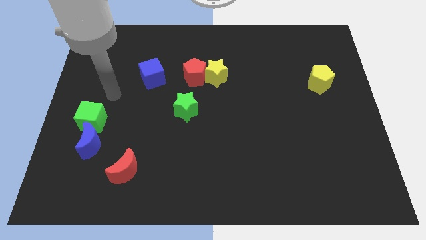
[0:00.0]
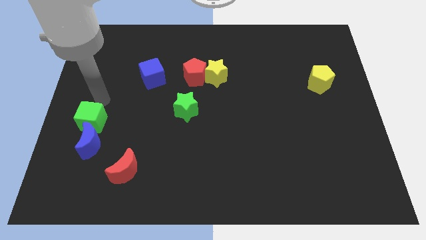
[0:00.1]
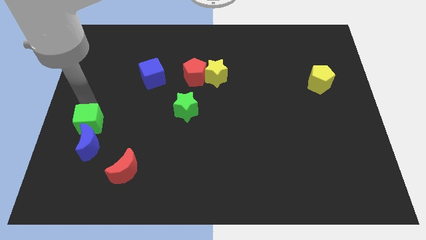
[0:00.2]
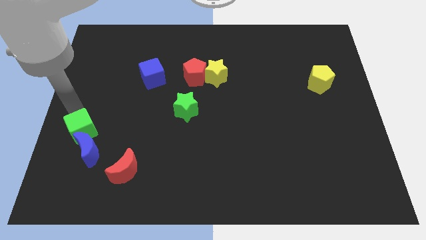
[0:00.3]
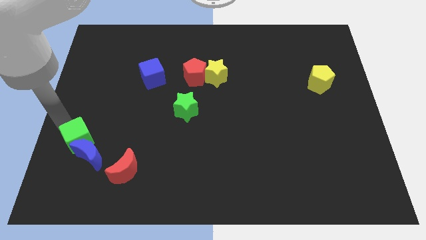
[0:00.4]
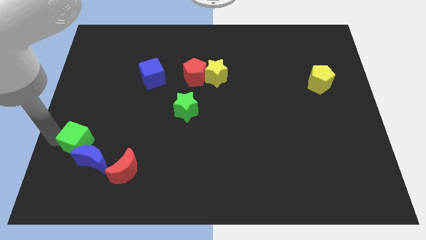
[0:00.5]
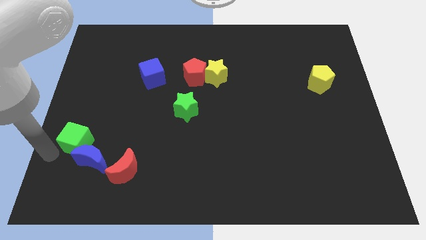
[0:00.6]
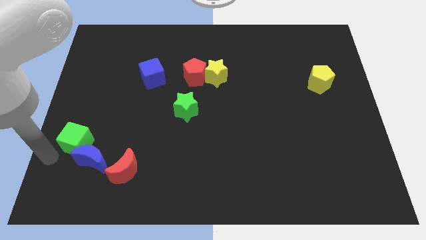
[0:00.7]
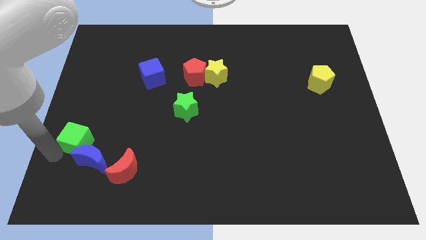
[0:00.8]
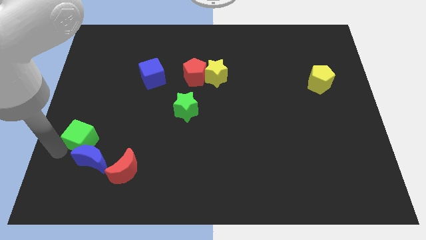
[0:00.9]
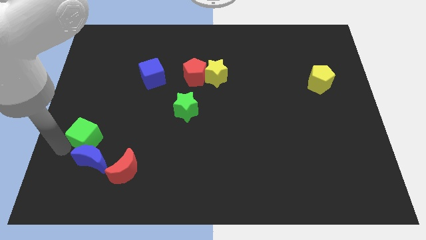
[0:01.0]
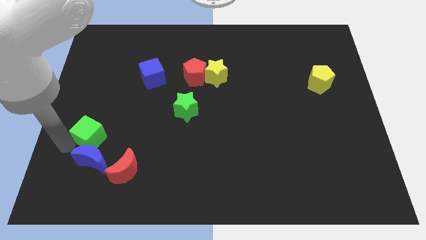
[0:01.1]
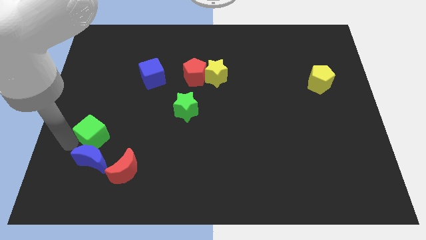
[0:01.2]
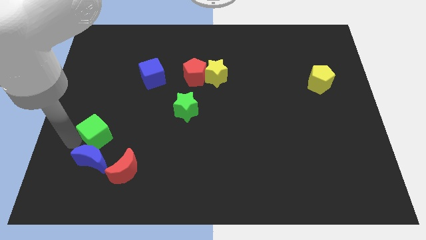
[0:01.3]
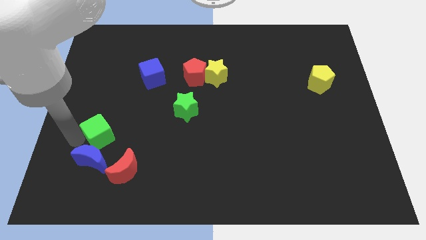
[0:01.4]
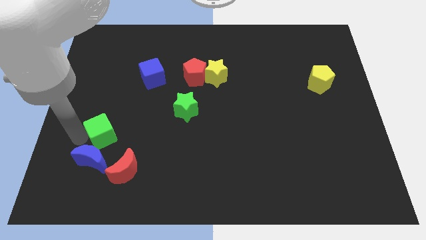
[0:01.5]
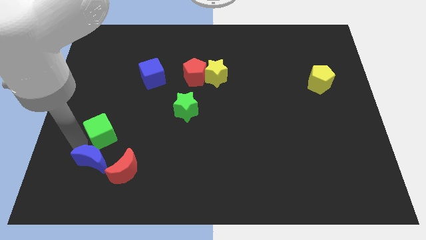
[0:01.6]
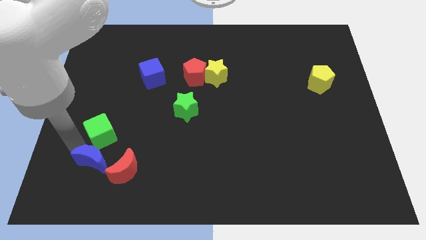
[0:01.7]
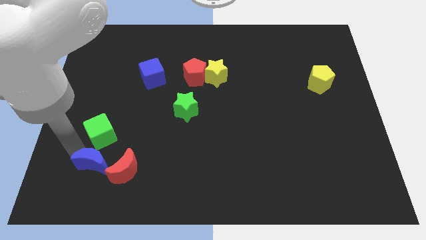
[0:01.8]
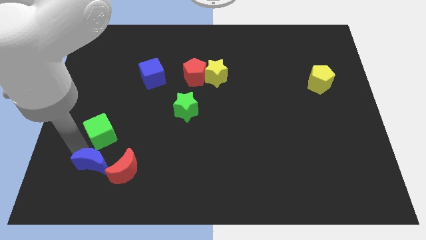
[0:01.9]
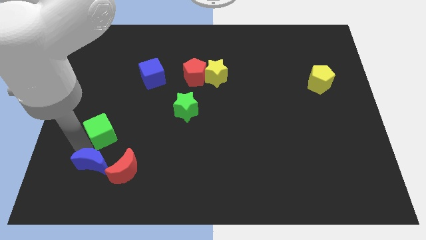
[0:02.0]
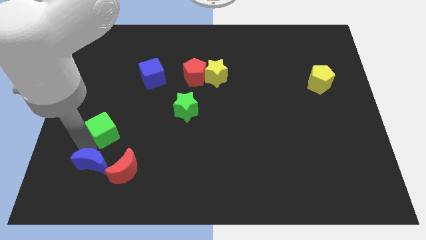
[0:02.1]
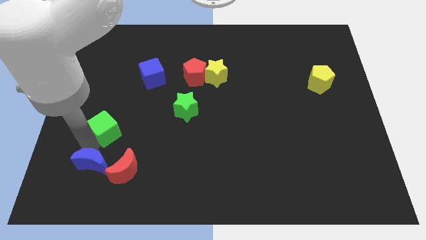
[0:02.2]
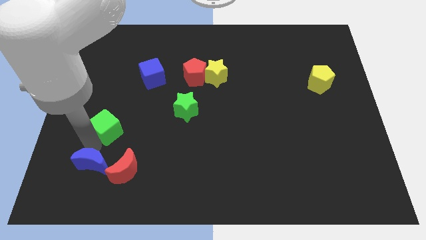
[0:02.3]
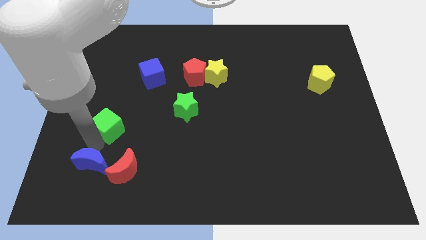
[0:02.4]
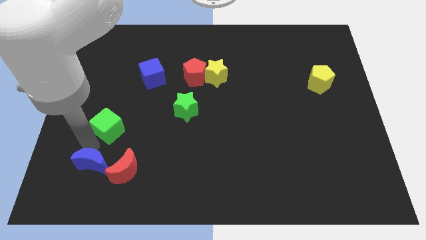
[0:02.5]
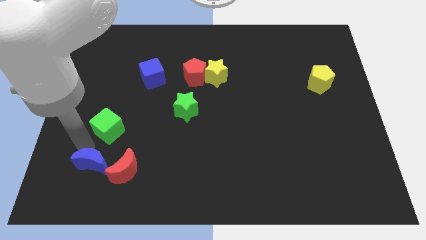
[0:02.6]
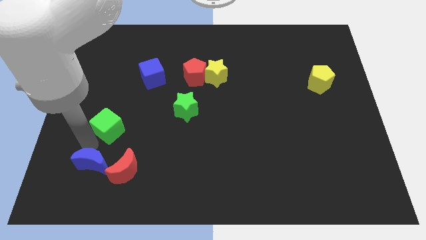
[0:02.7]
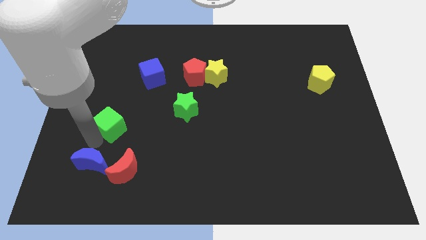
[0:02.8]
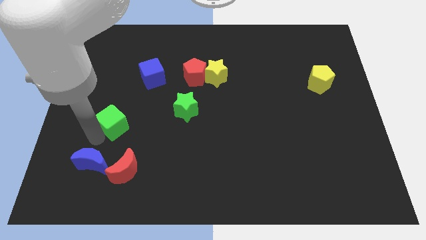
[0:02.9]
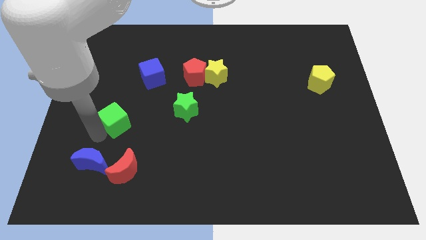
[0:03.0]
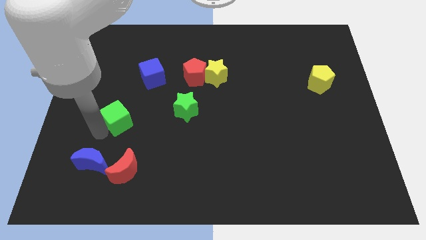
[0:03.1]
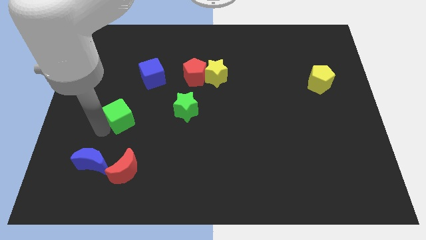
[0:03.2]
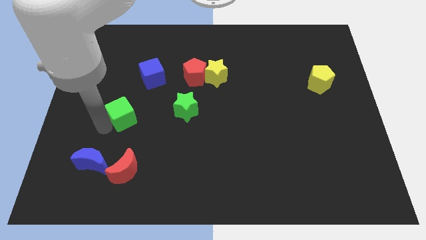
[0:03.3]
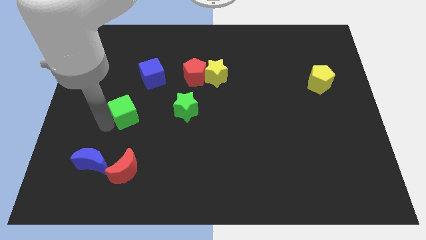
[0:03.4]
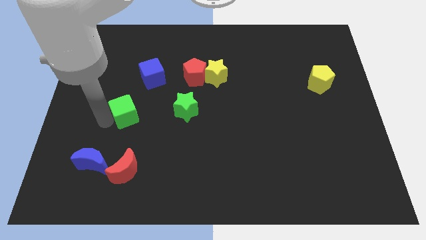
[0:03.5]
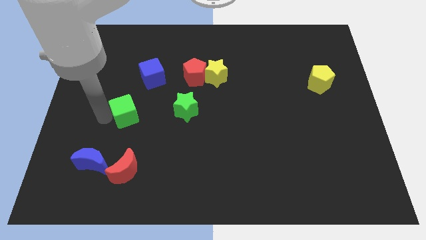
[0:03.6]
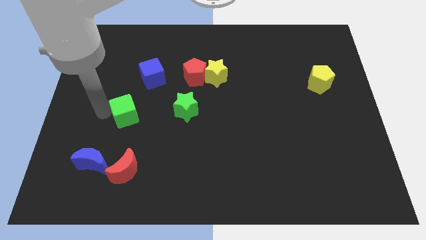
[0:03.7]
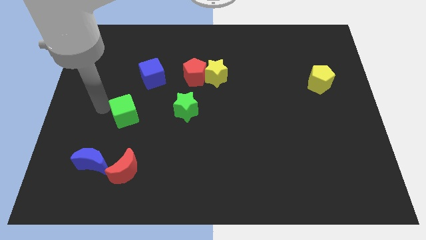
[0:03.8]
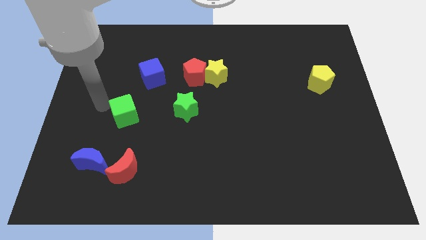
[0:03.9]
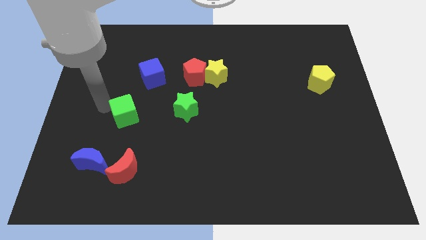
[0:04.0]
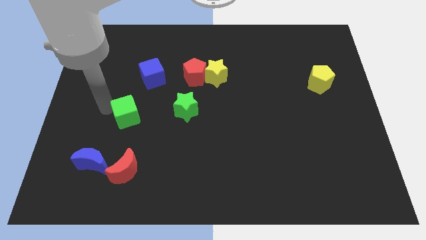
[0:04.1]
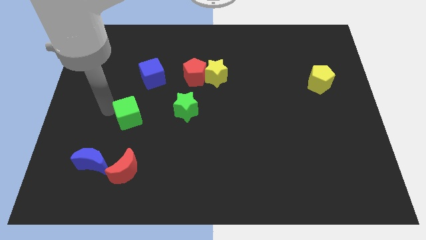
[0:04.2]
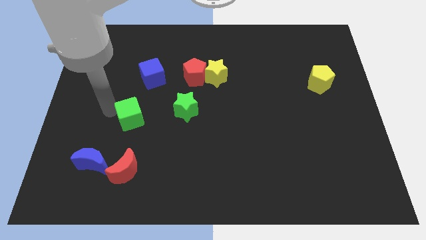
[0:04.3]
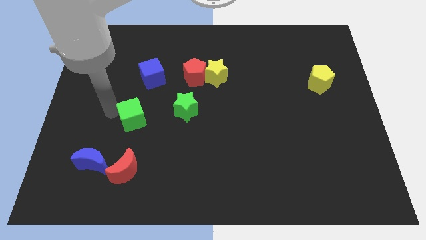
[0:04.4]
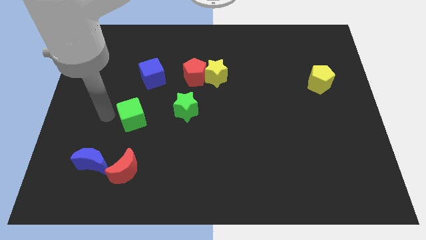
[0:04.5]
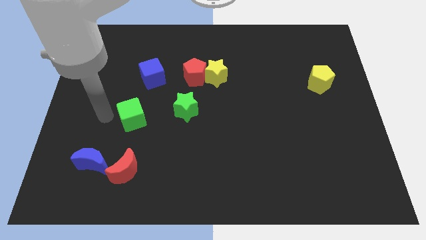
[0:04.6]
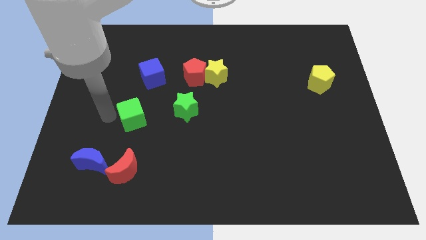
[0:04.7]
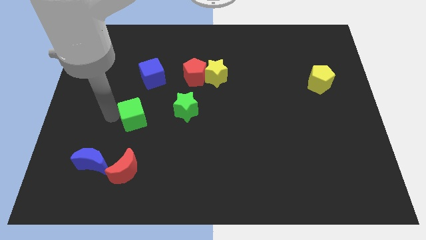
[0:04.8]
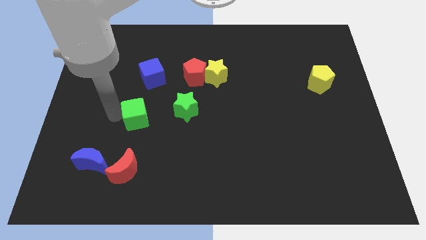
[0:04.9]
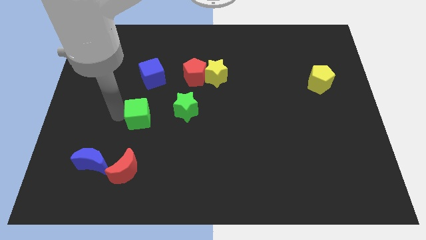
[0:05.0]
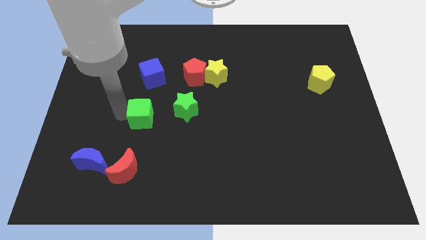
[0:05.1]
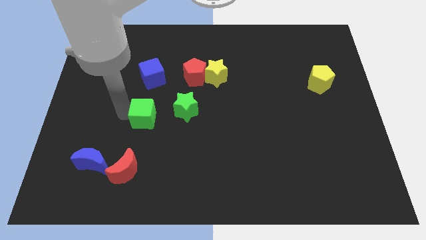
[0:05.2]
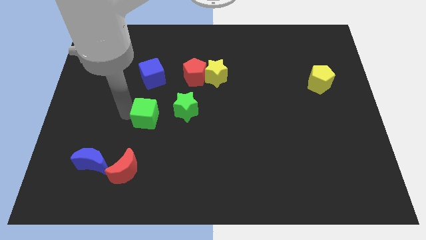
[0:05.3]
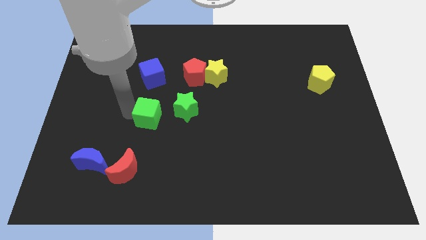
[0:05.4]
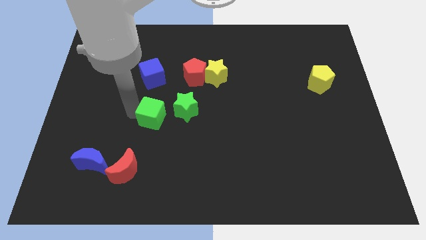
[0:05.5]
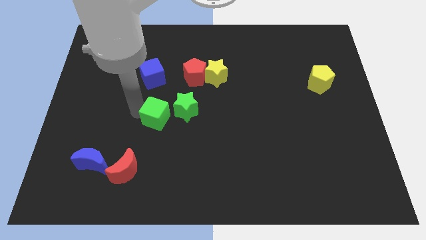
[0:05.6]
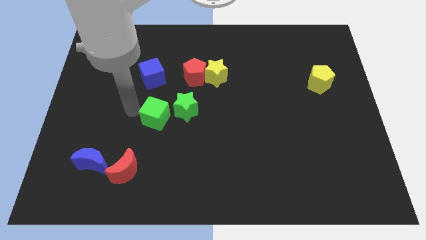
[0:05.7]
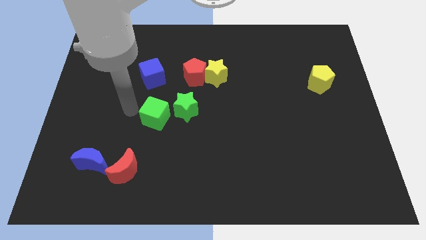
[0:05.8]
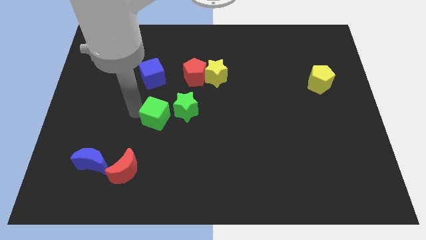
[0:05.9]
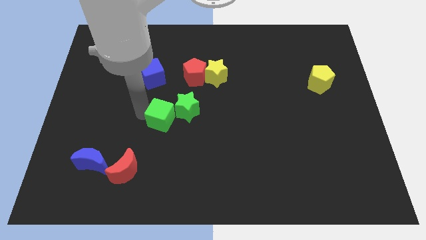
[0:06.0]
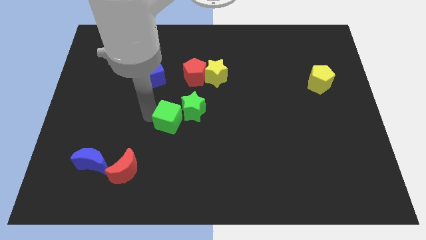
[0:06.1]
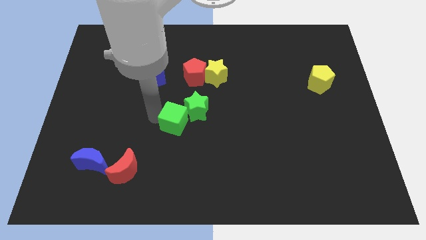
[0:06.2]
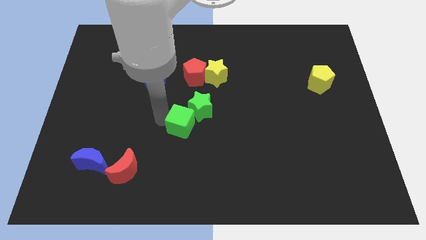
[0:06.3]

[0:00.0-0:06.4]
slide the green cube right

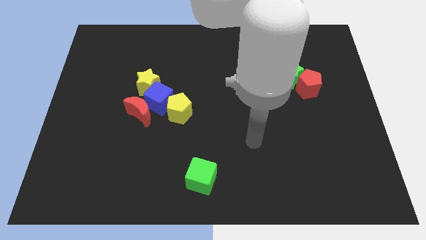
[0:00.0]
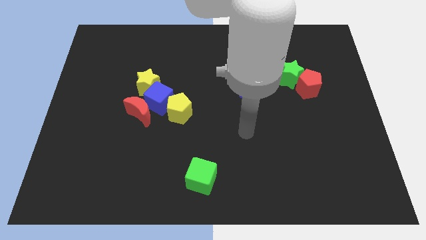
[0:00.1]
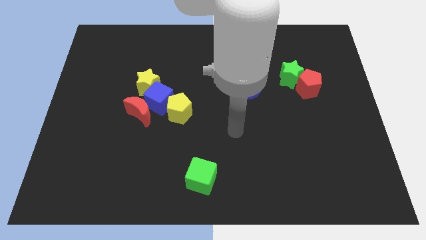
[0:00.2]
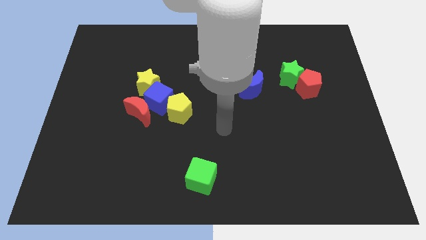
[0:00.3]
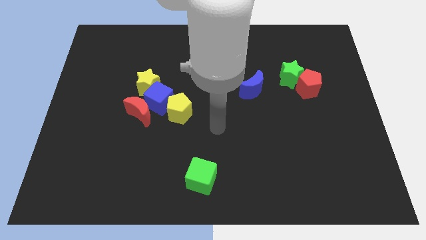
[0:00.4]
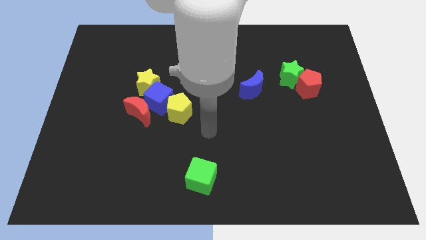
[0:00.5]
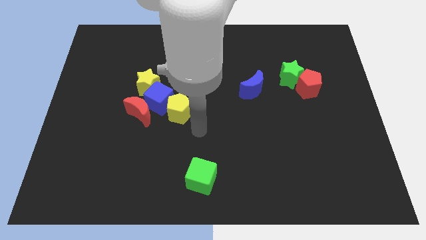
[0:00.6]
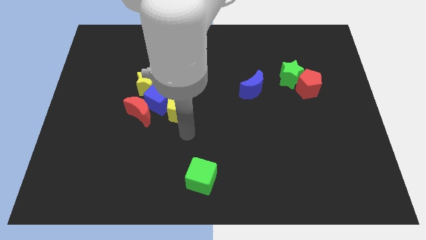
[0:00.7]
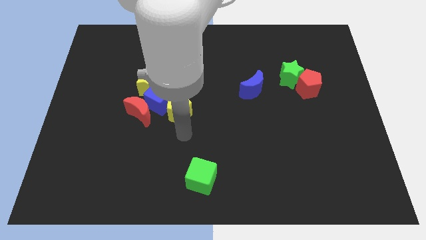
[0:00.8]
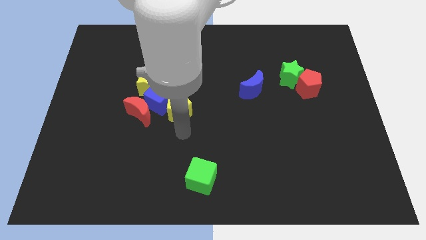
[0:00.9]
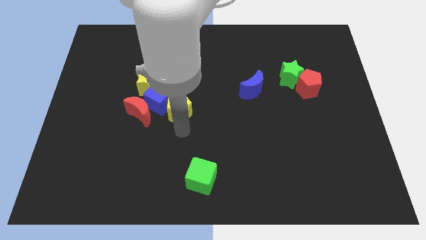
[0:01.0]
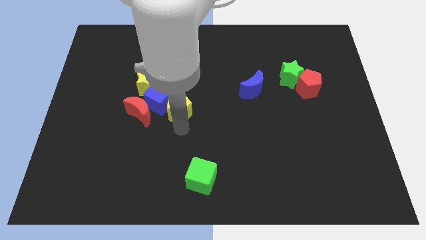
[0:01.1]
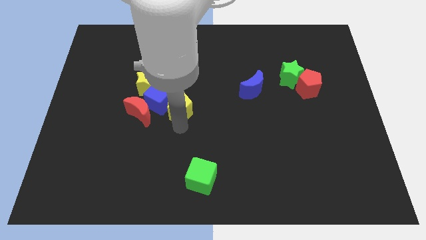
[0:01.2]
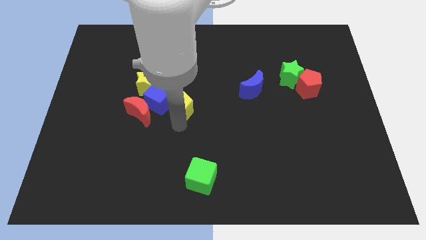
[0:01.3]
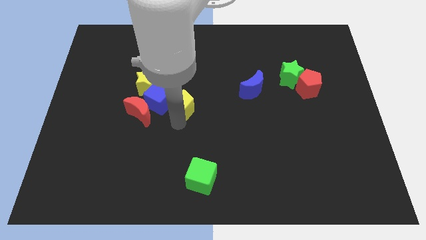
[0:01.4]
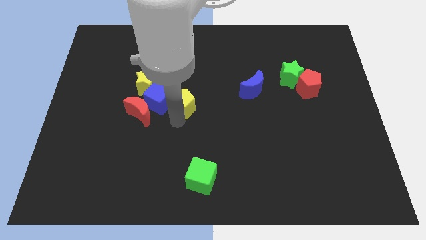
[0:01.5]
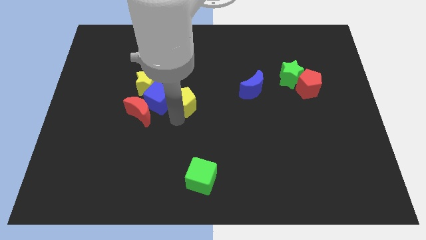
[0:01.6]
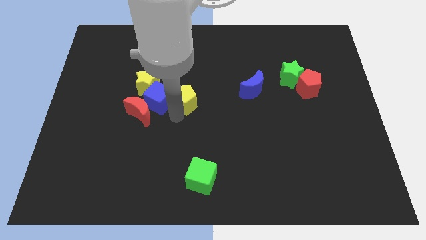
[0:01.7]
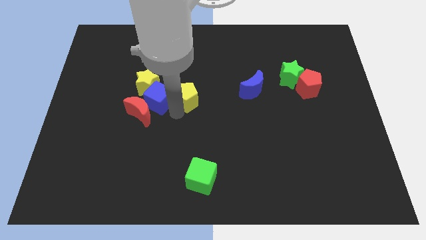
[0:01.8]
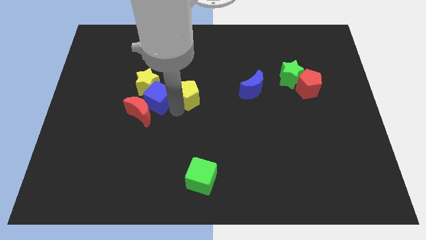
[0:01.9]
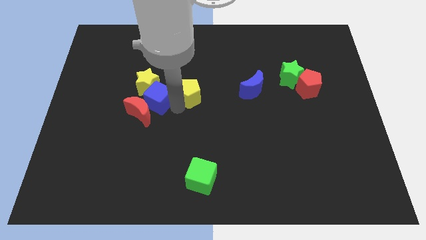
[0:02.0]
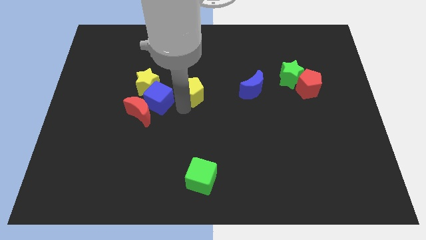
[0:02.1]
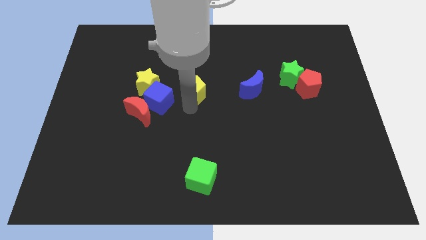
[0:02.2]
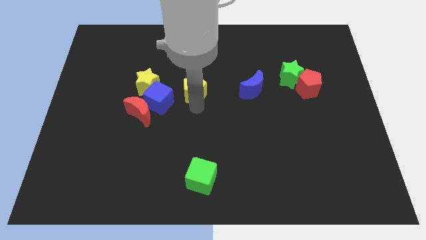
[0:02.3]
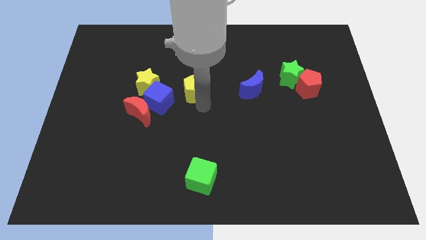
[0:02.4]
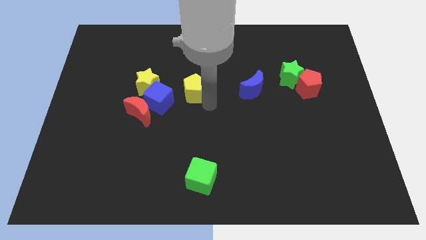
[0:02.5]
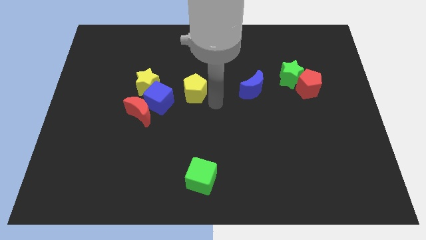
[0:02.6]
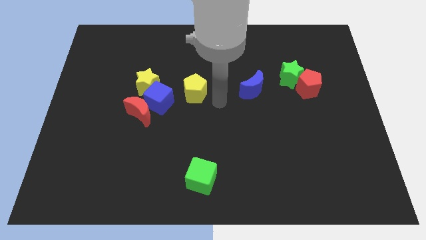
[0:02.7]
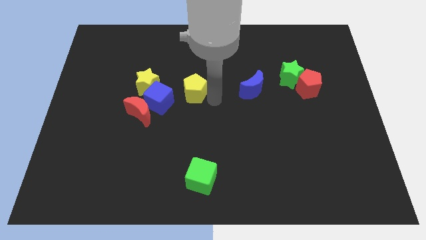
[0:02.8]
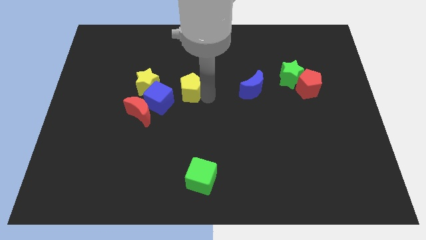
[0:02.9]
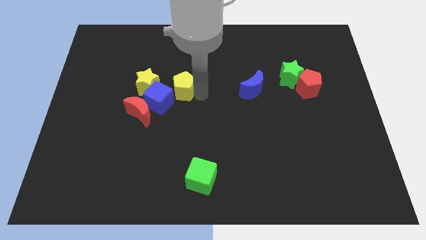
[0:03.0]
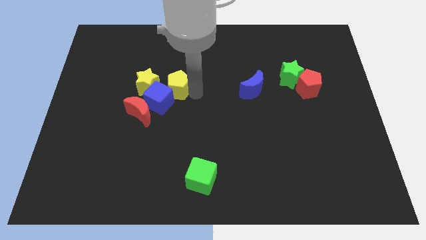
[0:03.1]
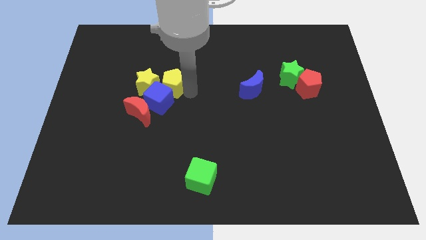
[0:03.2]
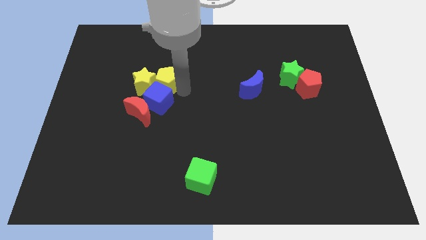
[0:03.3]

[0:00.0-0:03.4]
slide the yellow pentagon diagonally upwards and left slightly
